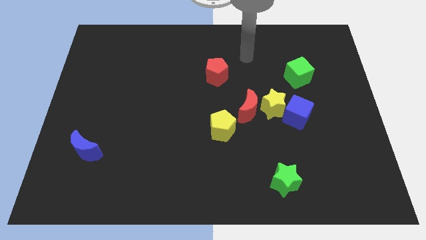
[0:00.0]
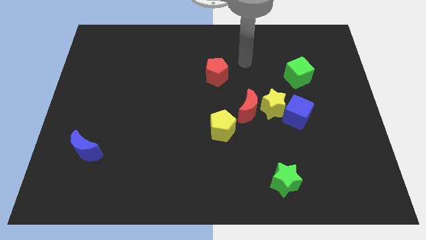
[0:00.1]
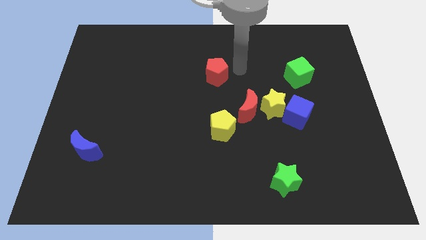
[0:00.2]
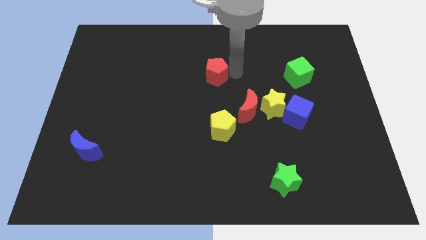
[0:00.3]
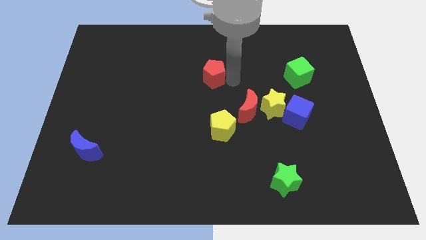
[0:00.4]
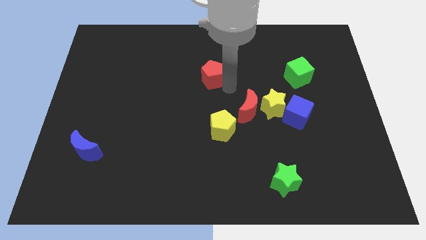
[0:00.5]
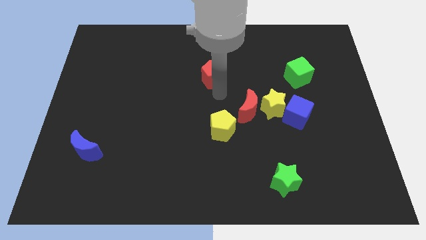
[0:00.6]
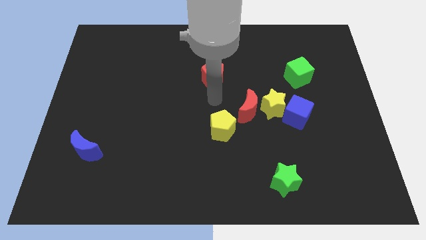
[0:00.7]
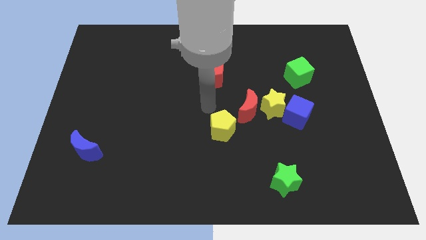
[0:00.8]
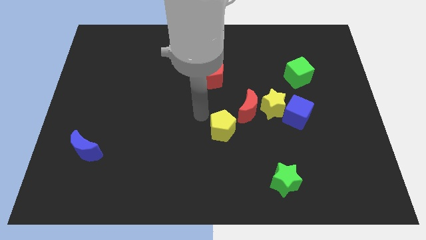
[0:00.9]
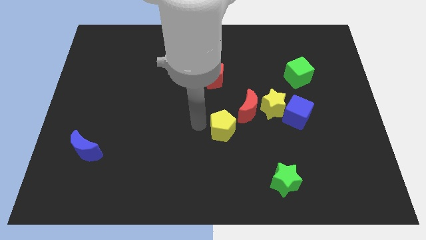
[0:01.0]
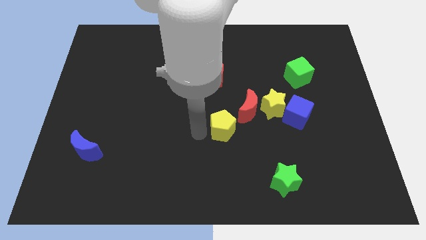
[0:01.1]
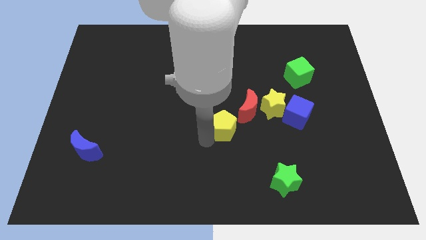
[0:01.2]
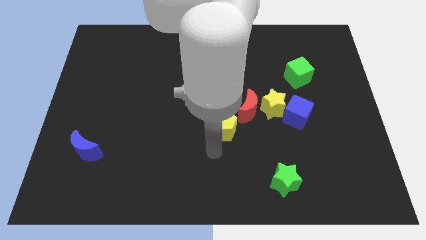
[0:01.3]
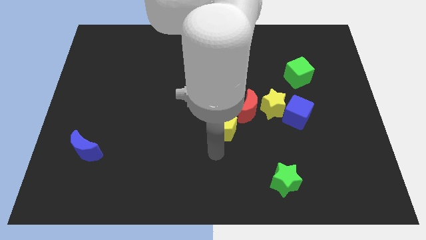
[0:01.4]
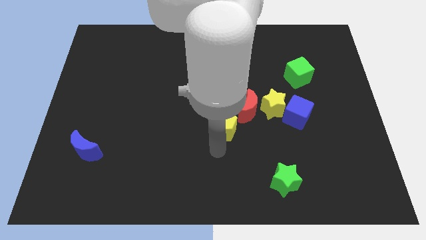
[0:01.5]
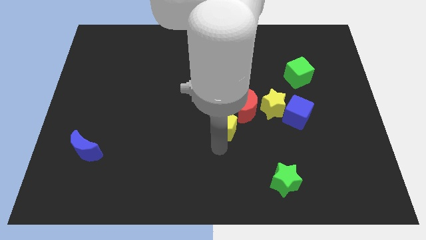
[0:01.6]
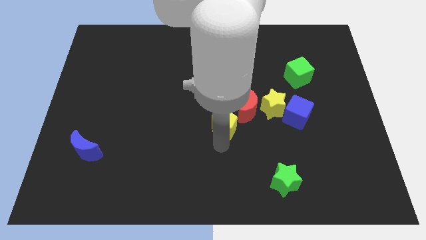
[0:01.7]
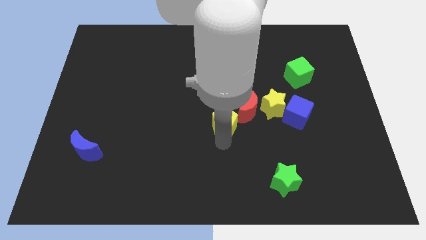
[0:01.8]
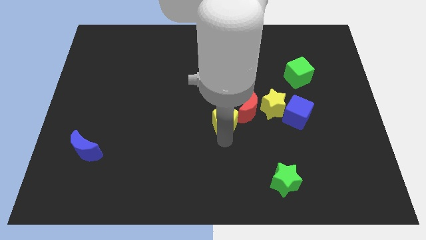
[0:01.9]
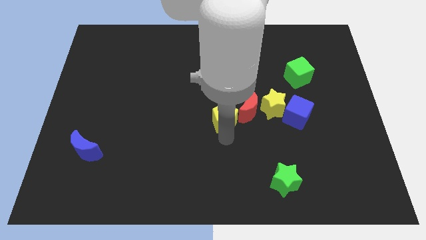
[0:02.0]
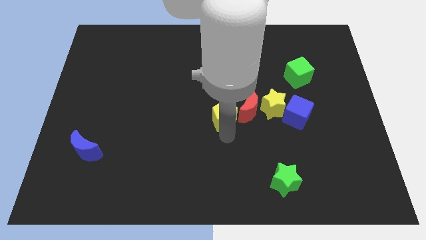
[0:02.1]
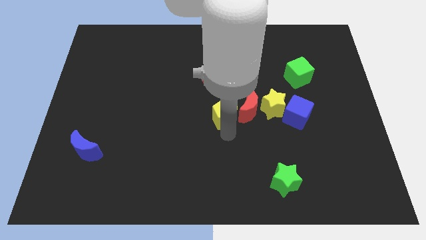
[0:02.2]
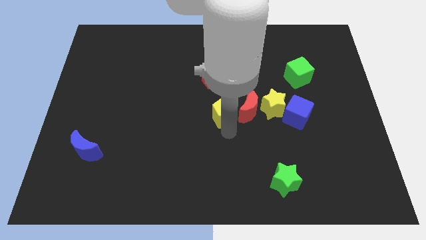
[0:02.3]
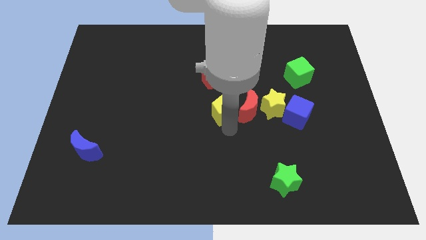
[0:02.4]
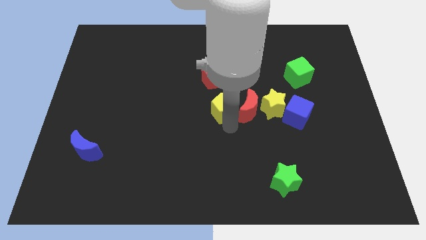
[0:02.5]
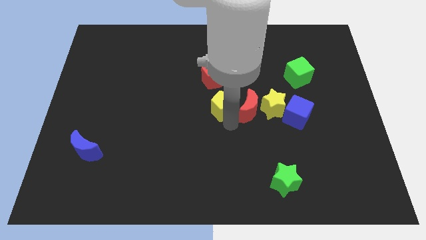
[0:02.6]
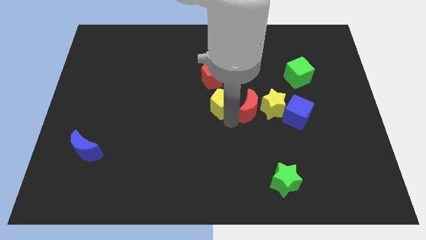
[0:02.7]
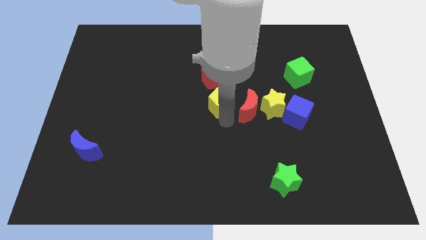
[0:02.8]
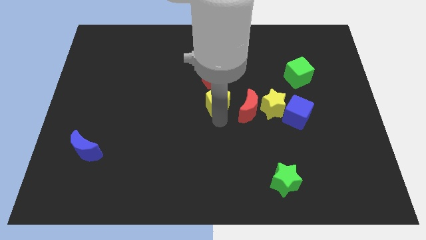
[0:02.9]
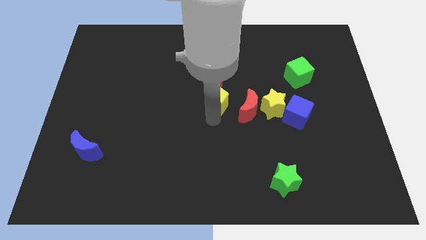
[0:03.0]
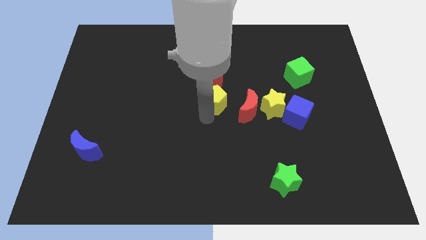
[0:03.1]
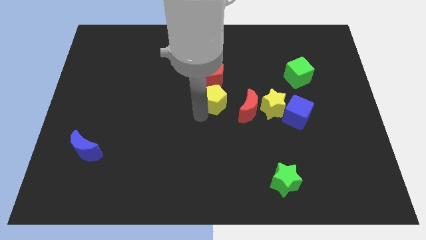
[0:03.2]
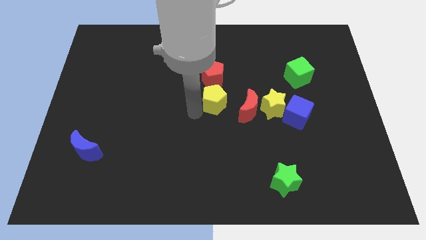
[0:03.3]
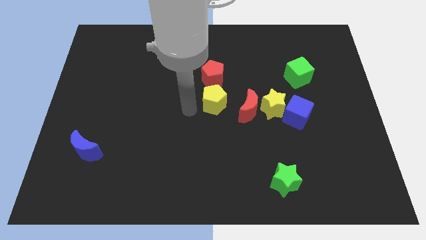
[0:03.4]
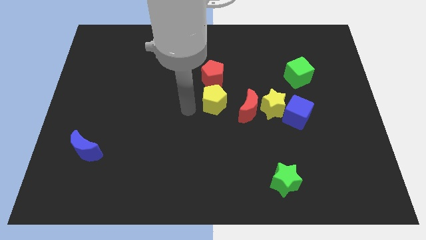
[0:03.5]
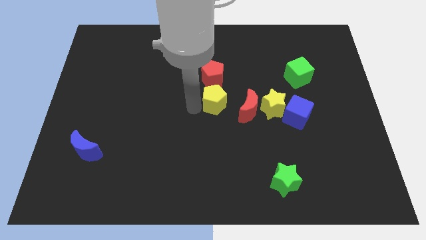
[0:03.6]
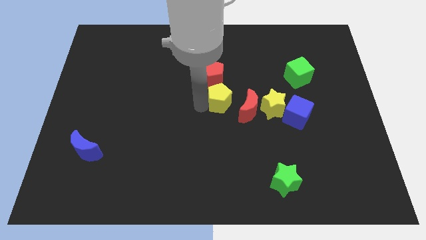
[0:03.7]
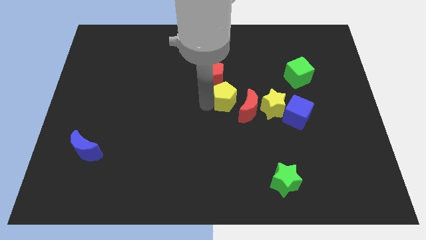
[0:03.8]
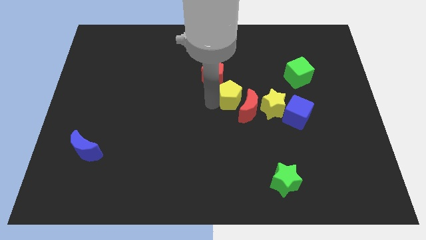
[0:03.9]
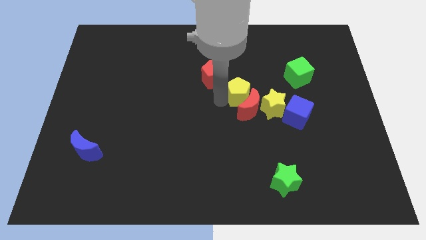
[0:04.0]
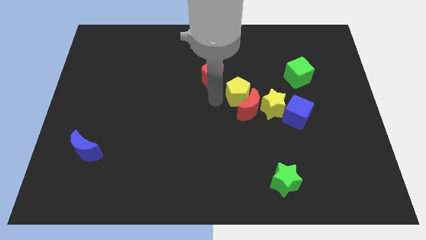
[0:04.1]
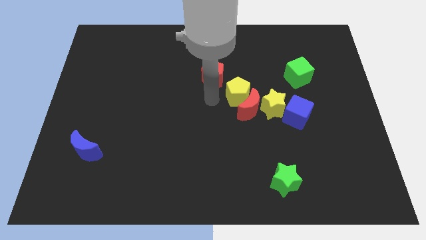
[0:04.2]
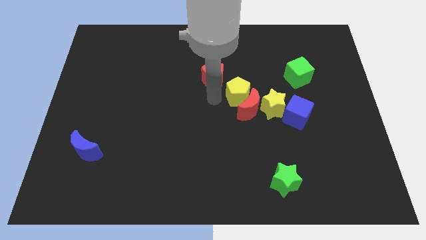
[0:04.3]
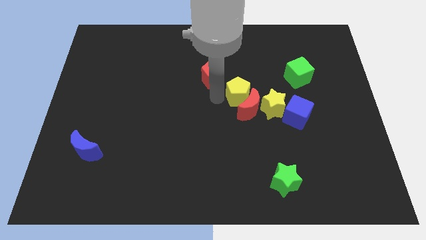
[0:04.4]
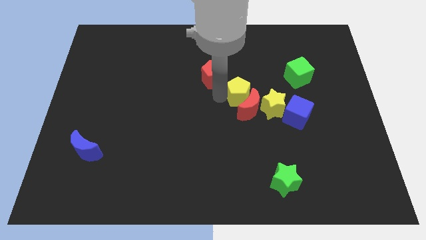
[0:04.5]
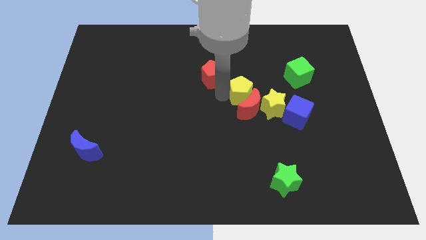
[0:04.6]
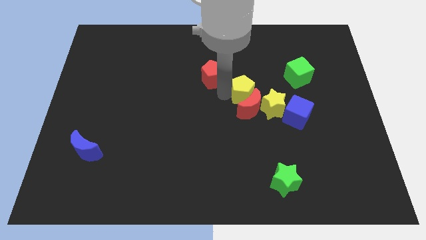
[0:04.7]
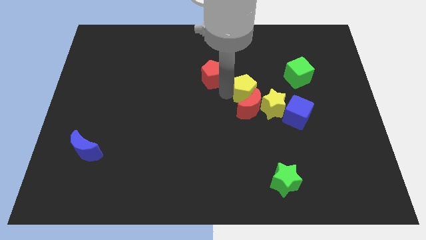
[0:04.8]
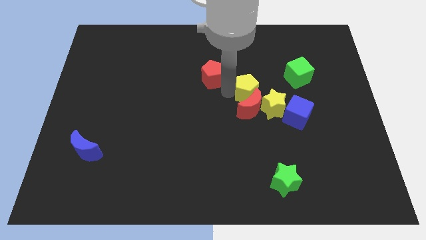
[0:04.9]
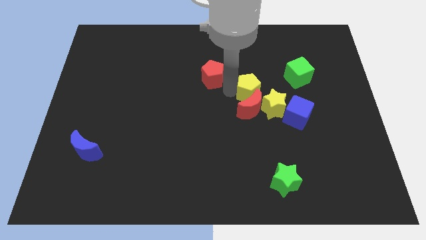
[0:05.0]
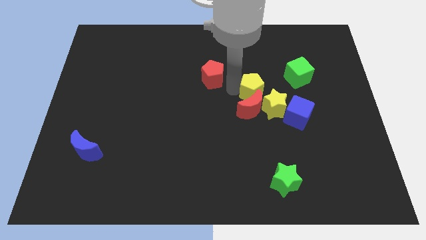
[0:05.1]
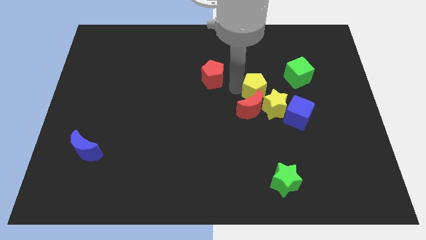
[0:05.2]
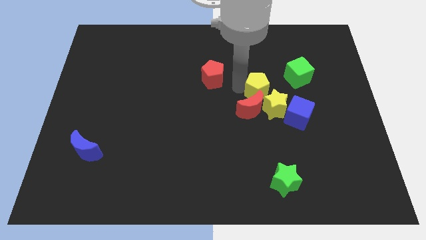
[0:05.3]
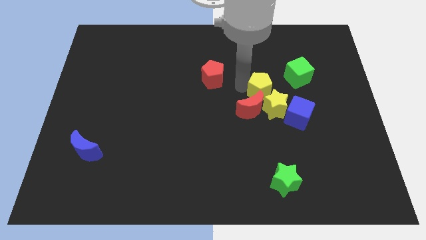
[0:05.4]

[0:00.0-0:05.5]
put the yellow pentagon diagonally down and to the left of the green cube

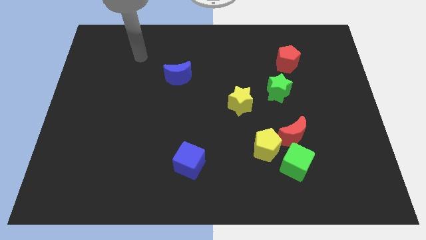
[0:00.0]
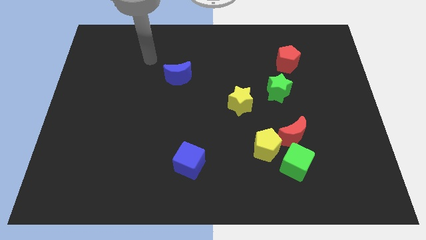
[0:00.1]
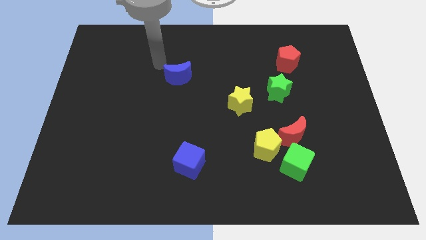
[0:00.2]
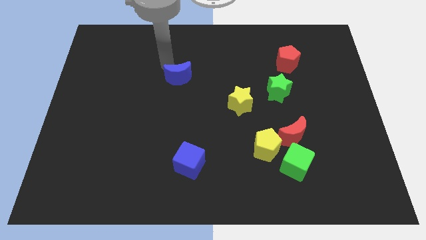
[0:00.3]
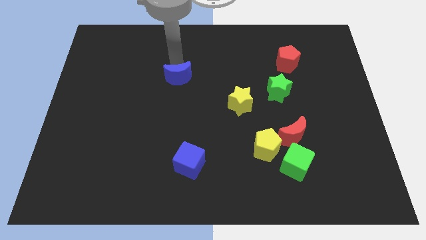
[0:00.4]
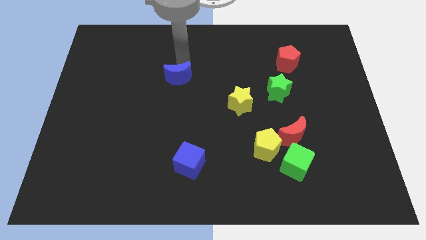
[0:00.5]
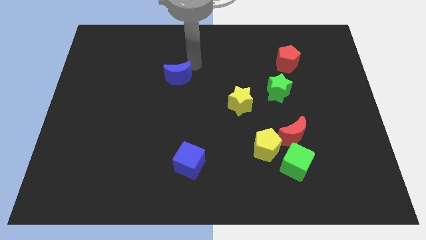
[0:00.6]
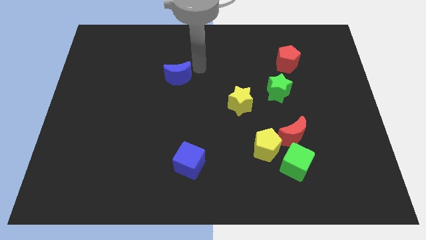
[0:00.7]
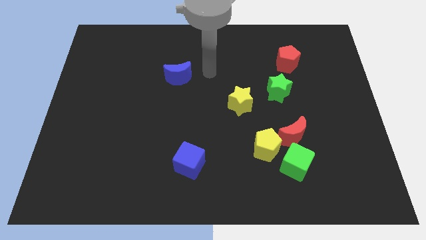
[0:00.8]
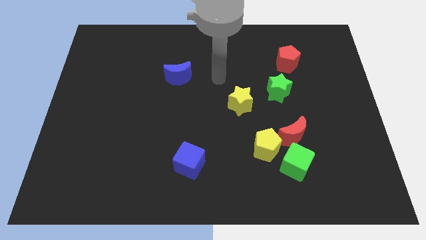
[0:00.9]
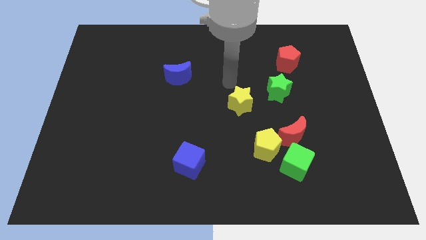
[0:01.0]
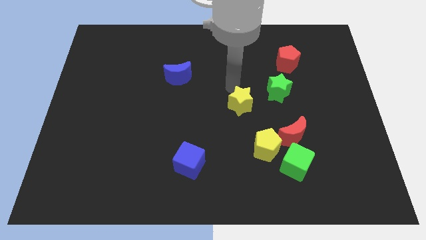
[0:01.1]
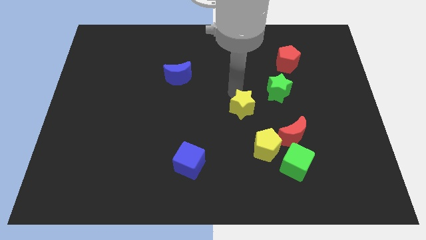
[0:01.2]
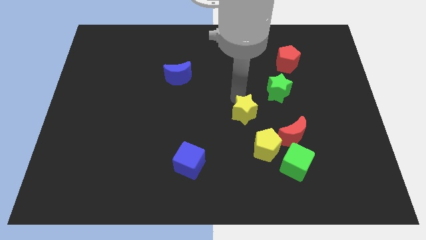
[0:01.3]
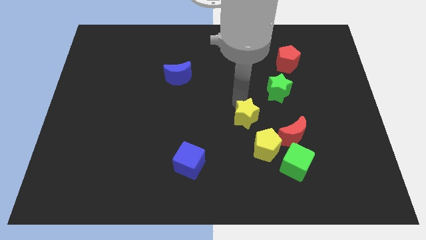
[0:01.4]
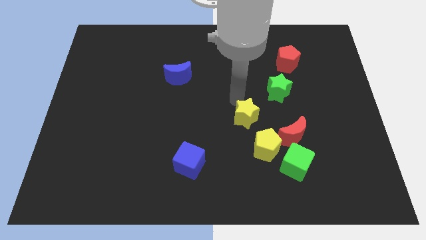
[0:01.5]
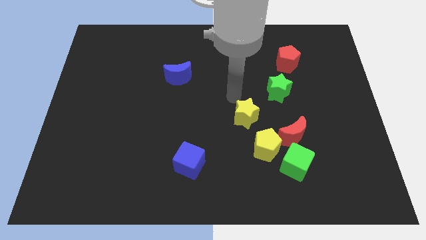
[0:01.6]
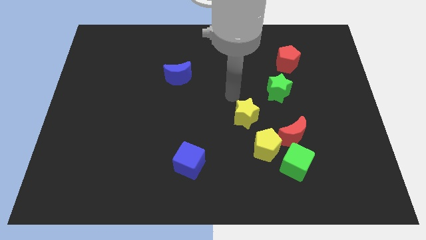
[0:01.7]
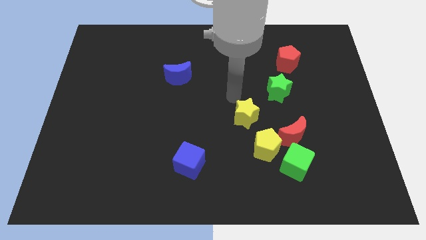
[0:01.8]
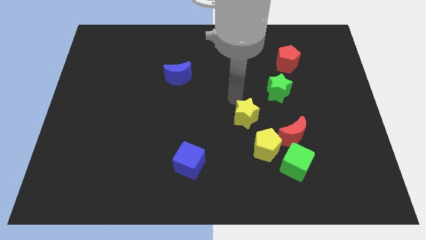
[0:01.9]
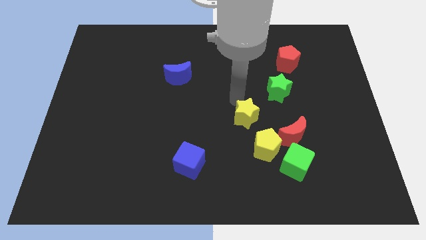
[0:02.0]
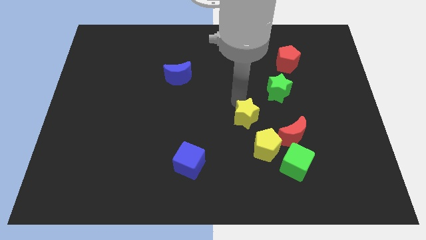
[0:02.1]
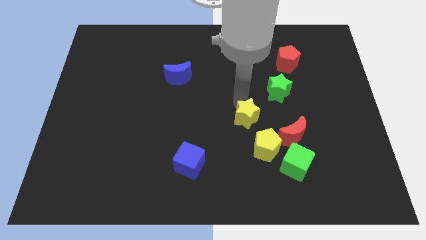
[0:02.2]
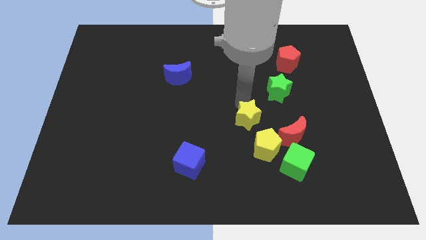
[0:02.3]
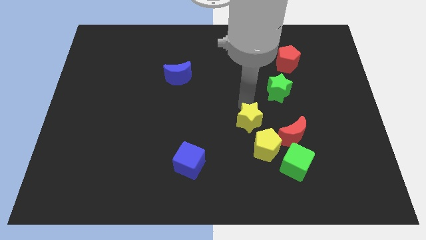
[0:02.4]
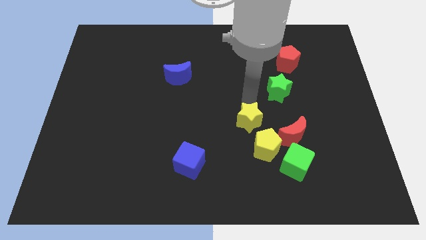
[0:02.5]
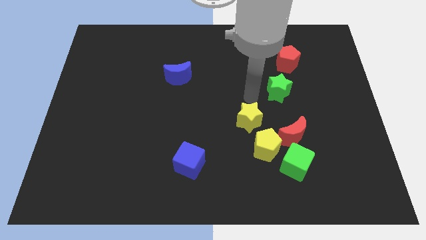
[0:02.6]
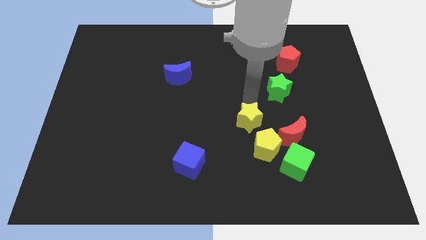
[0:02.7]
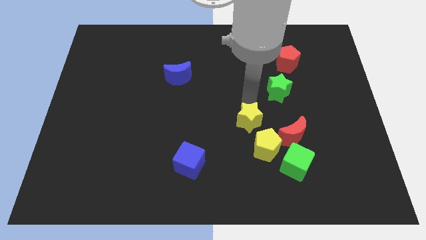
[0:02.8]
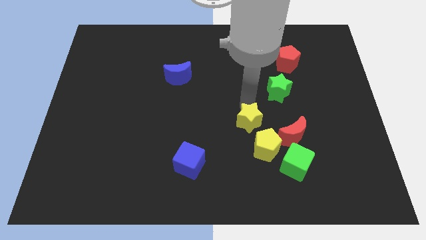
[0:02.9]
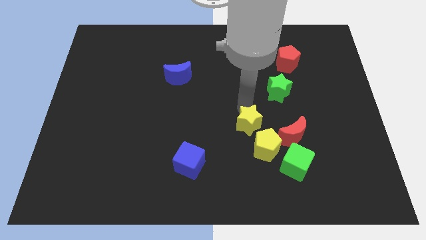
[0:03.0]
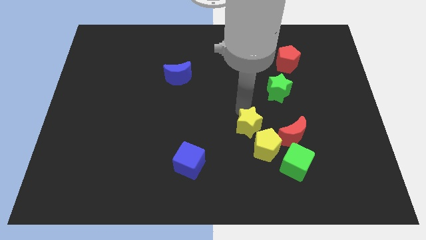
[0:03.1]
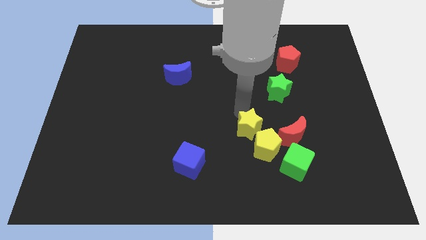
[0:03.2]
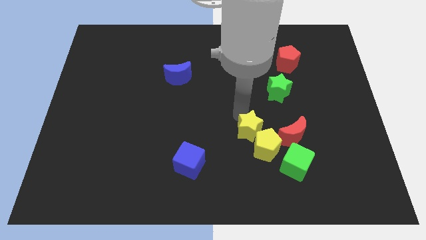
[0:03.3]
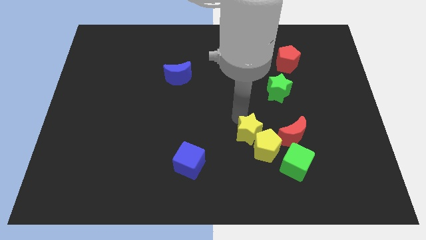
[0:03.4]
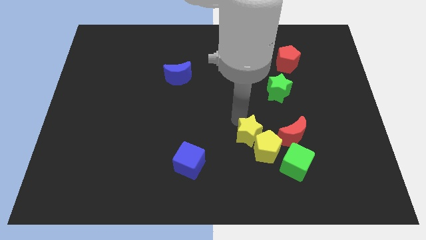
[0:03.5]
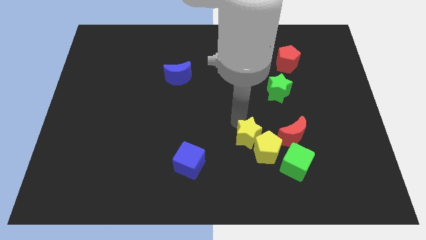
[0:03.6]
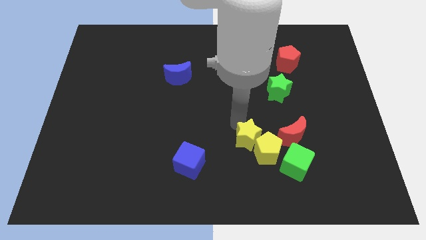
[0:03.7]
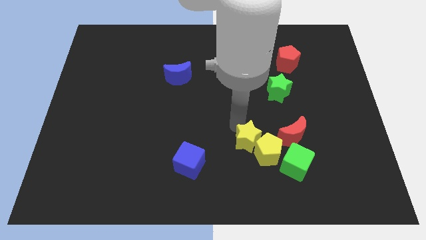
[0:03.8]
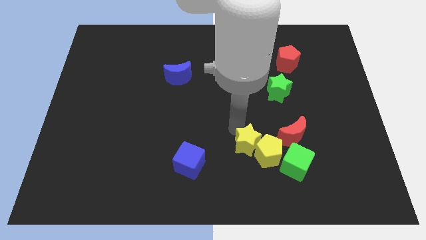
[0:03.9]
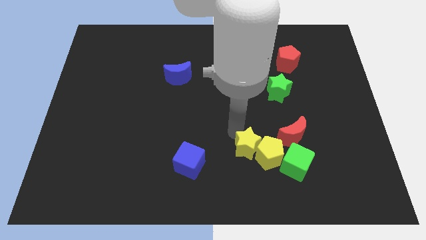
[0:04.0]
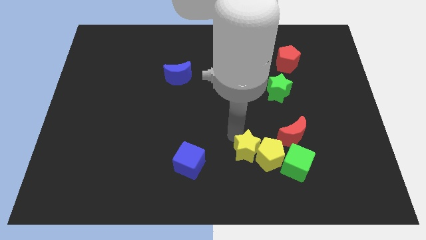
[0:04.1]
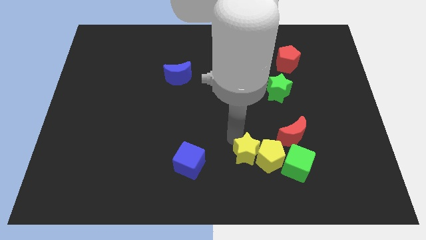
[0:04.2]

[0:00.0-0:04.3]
move the yellow star to the bottom left of the yellow pentagon
